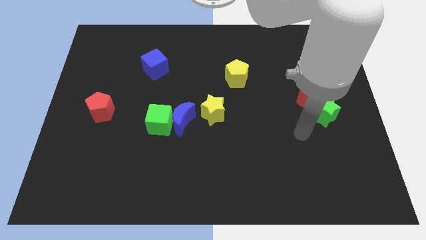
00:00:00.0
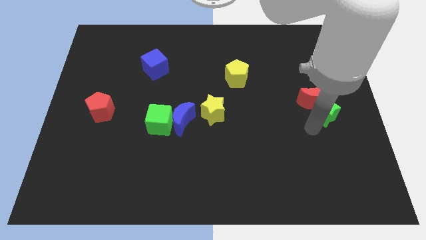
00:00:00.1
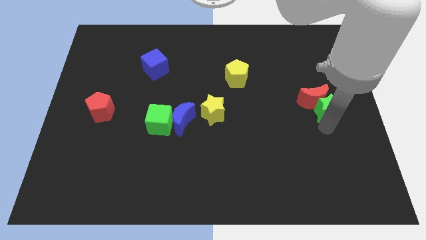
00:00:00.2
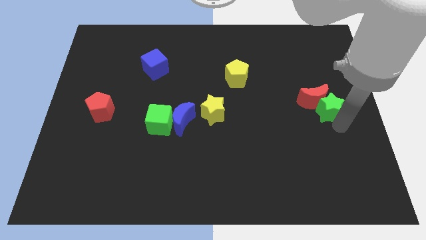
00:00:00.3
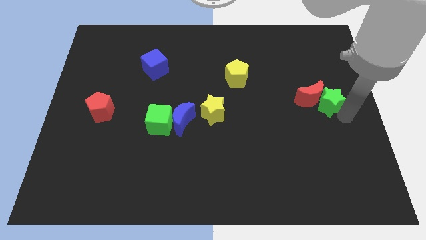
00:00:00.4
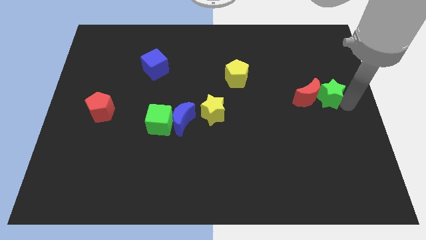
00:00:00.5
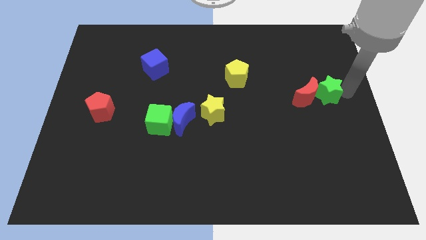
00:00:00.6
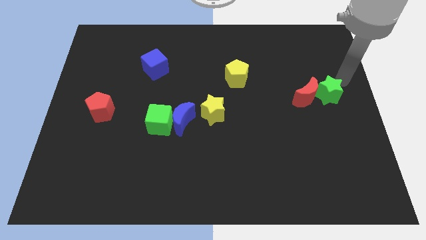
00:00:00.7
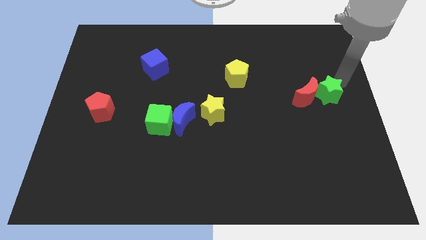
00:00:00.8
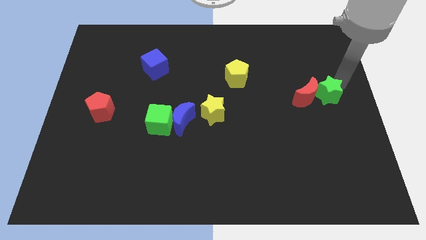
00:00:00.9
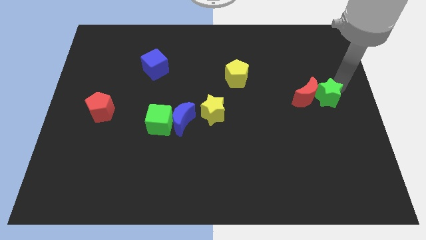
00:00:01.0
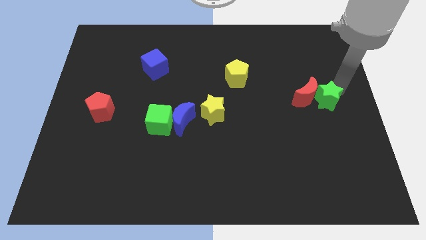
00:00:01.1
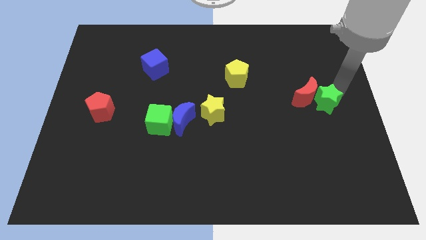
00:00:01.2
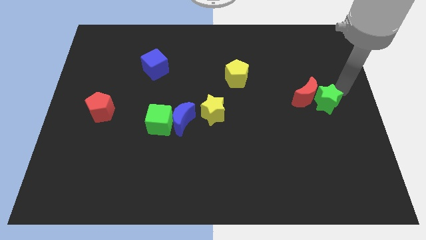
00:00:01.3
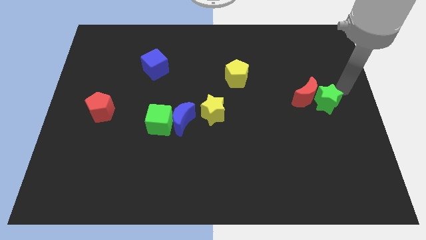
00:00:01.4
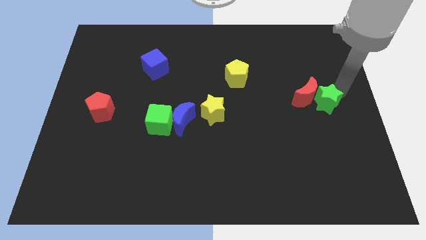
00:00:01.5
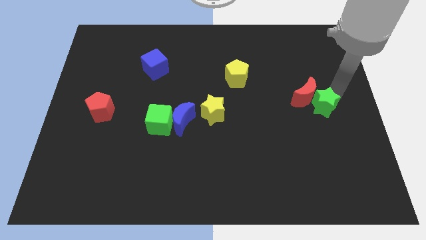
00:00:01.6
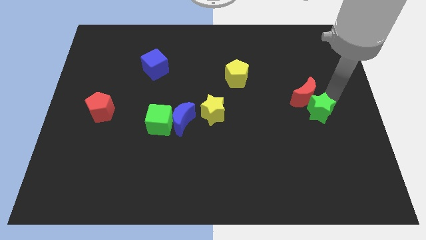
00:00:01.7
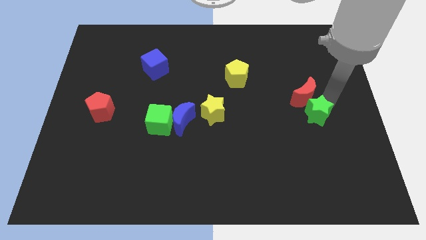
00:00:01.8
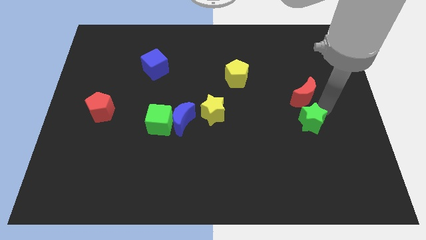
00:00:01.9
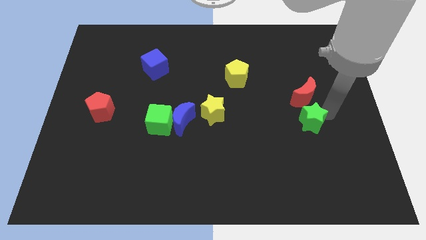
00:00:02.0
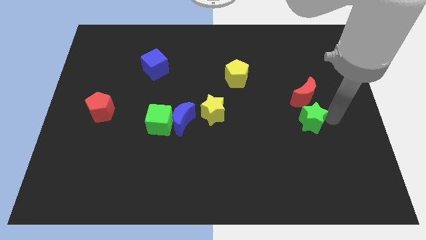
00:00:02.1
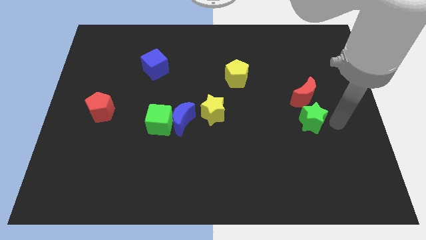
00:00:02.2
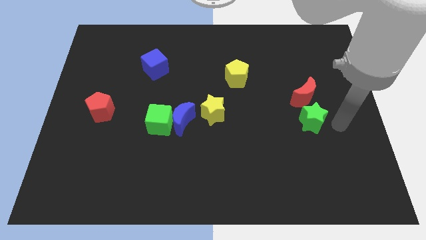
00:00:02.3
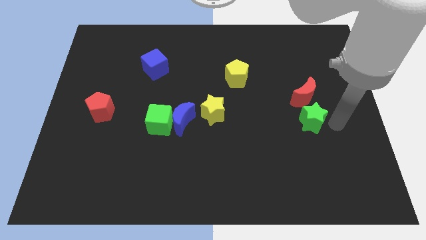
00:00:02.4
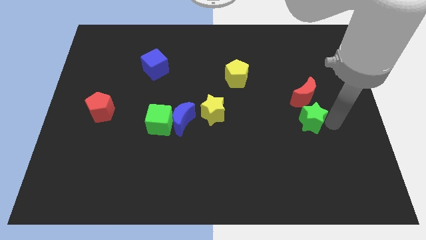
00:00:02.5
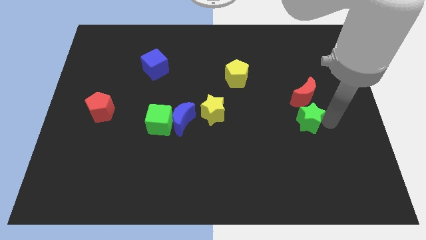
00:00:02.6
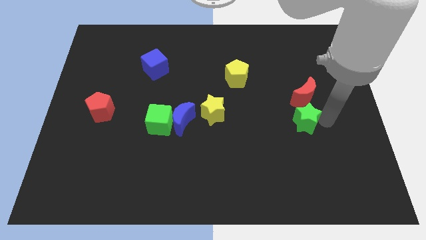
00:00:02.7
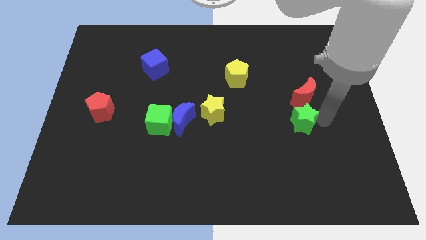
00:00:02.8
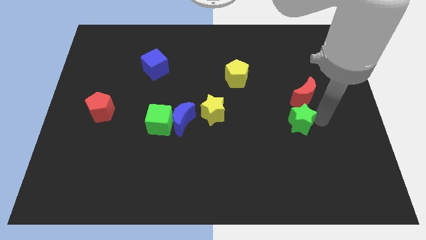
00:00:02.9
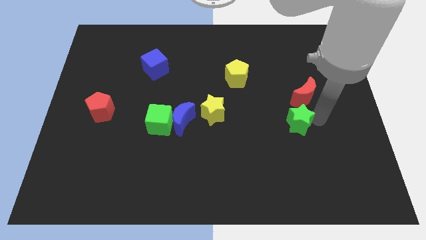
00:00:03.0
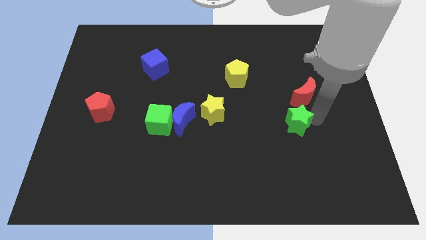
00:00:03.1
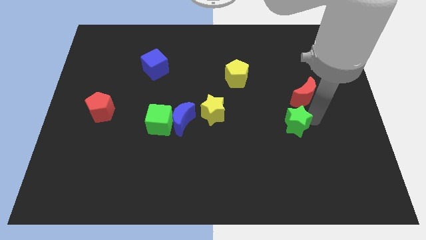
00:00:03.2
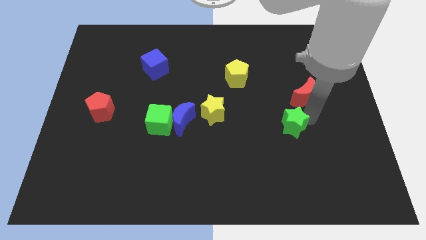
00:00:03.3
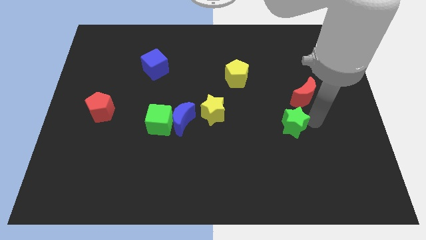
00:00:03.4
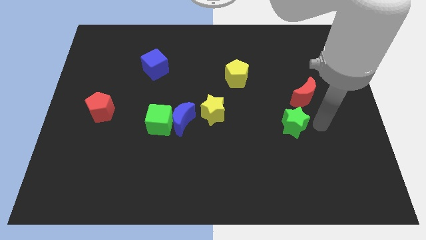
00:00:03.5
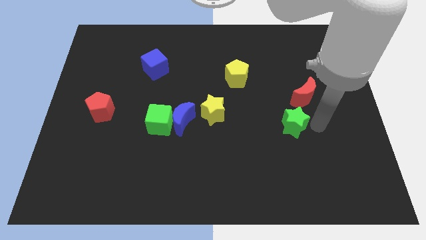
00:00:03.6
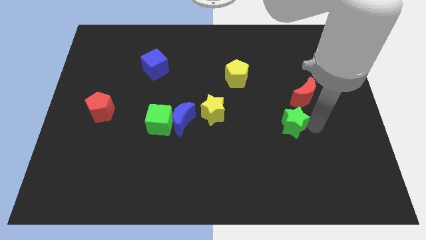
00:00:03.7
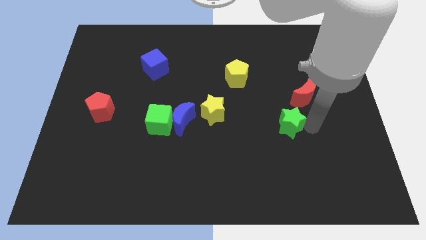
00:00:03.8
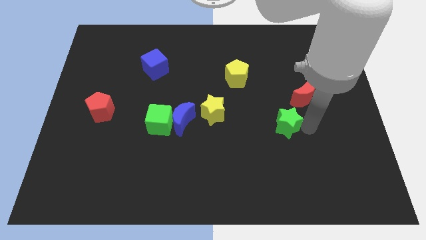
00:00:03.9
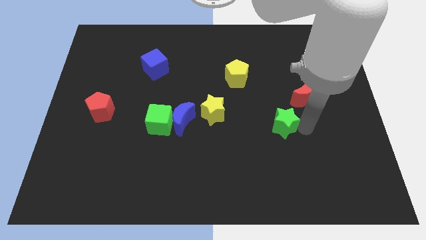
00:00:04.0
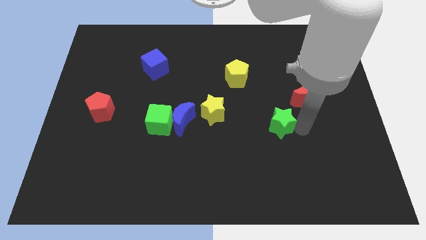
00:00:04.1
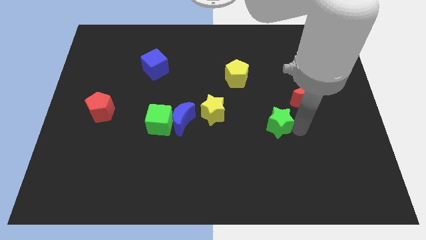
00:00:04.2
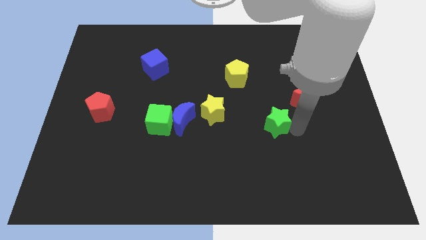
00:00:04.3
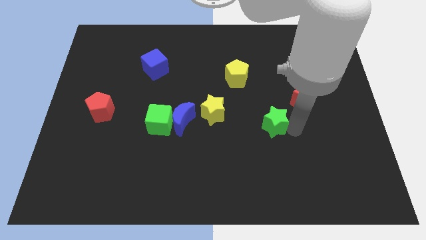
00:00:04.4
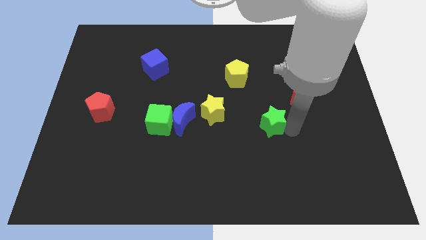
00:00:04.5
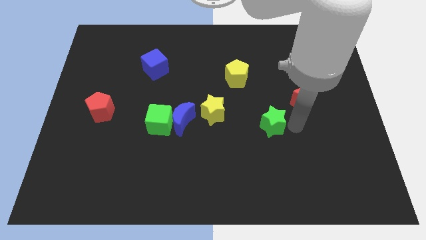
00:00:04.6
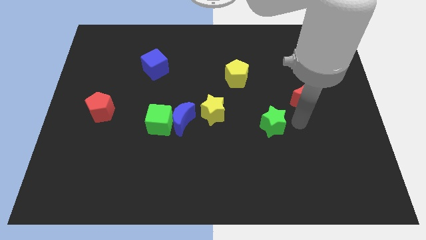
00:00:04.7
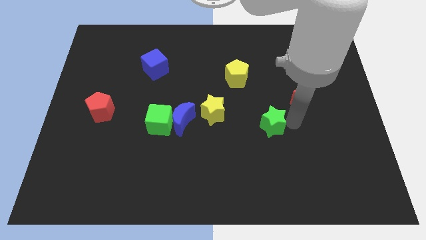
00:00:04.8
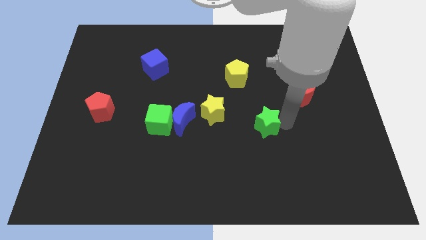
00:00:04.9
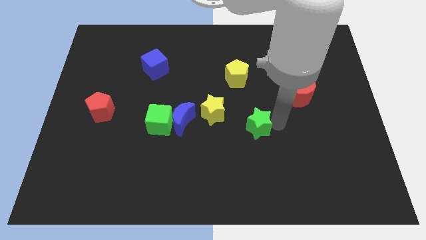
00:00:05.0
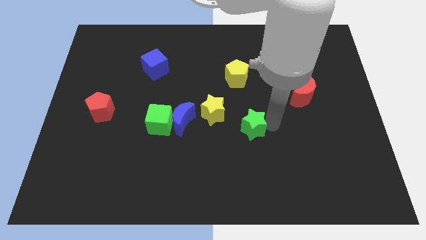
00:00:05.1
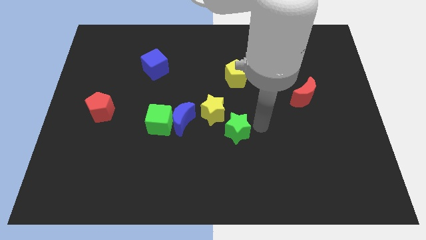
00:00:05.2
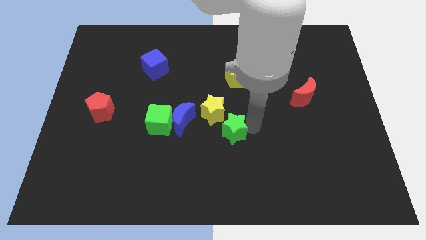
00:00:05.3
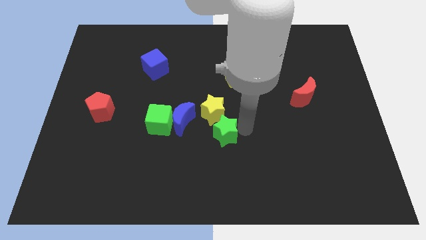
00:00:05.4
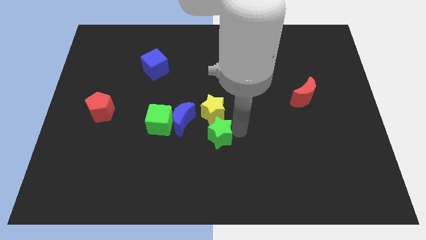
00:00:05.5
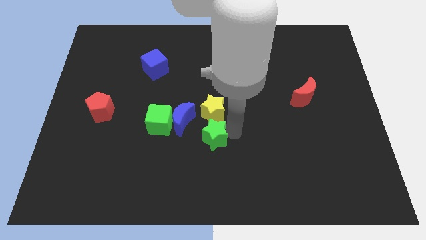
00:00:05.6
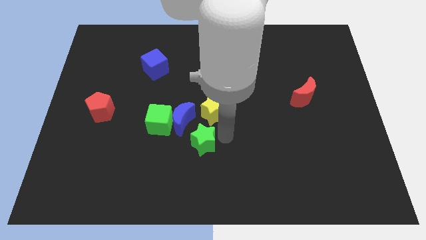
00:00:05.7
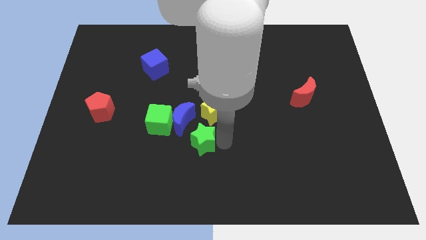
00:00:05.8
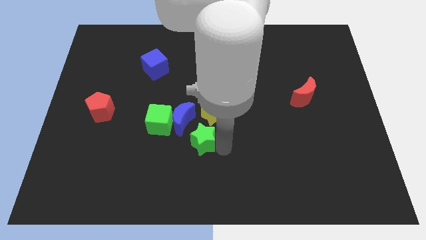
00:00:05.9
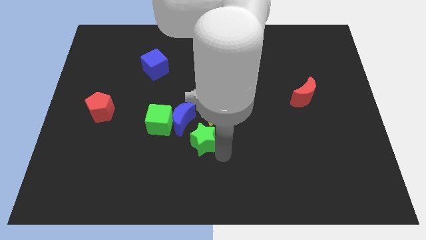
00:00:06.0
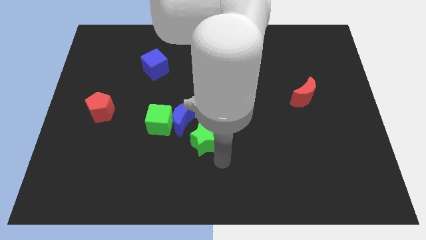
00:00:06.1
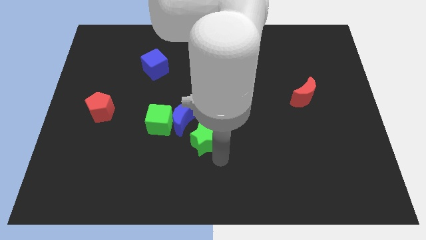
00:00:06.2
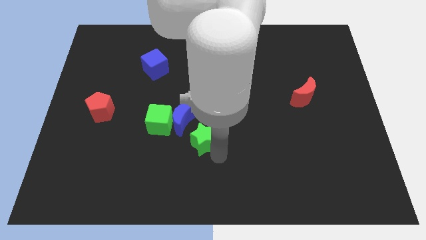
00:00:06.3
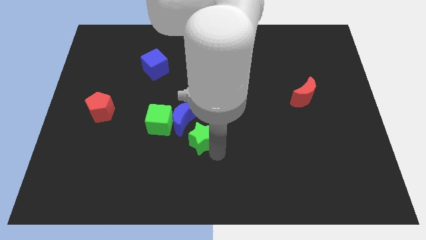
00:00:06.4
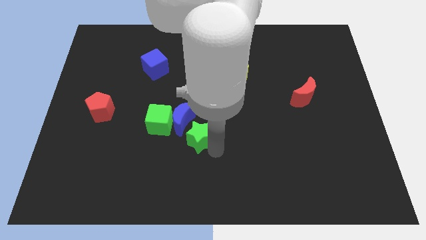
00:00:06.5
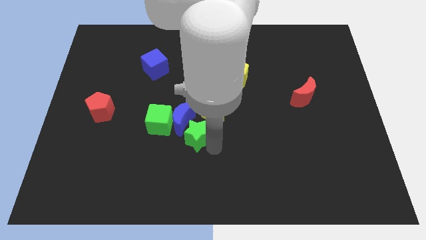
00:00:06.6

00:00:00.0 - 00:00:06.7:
push the green star to the blue moon

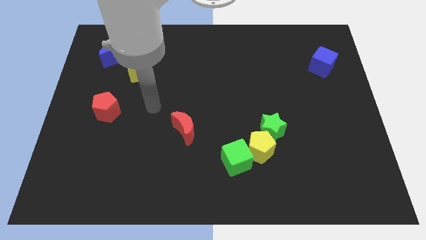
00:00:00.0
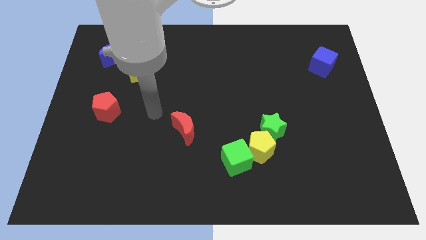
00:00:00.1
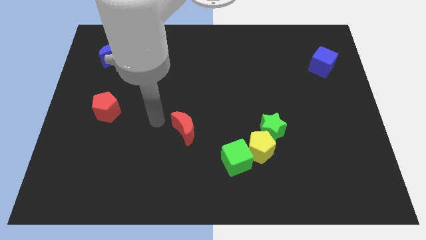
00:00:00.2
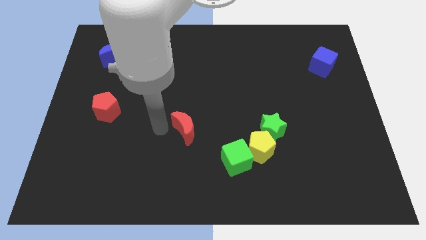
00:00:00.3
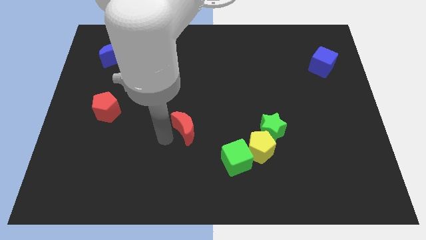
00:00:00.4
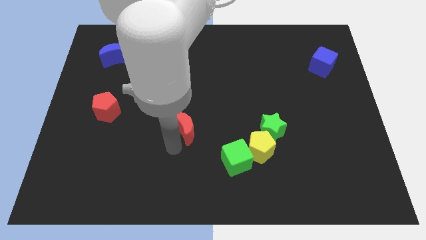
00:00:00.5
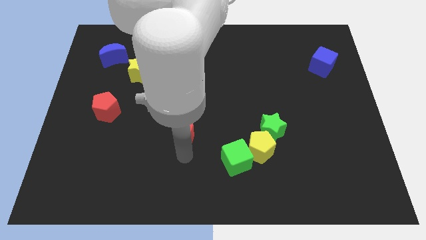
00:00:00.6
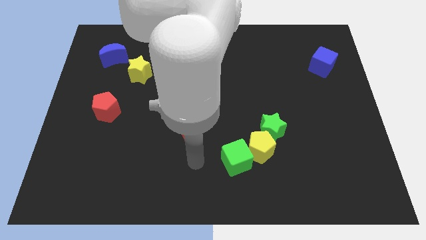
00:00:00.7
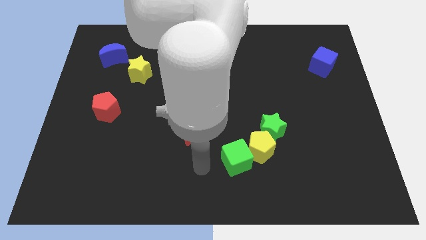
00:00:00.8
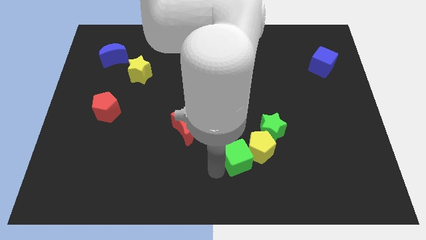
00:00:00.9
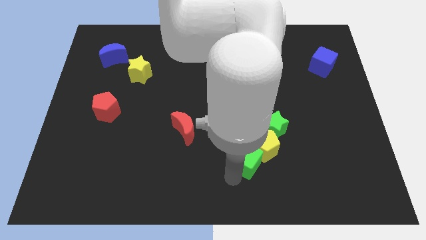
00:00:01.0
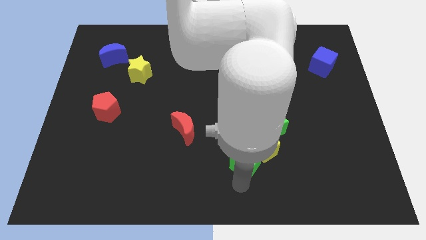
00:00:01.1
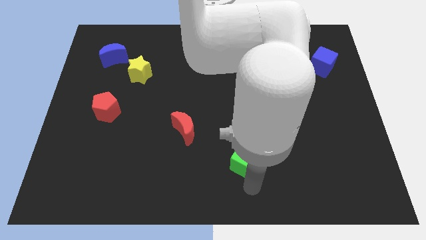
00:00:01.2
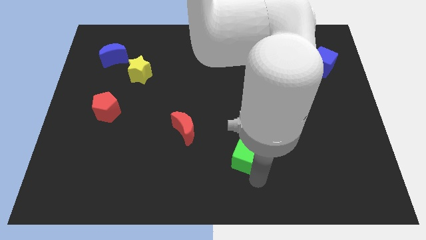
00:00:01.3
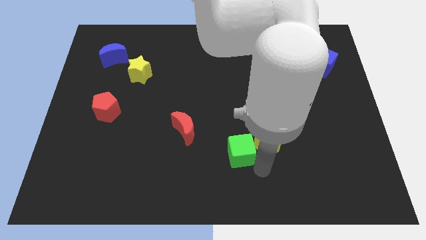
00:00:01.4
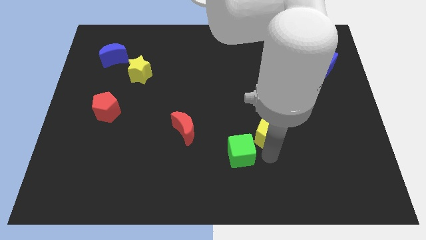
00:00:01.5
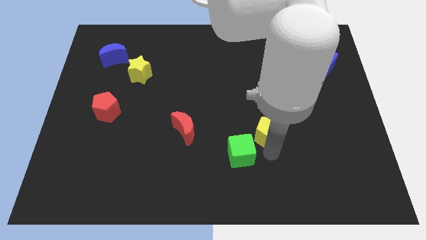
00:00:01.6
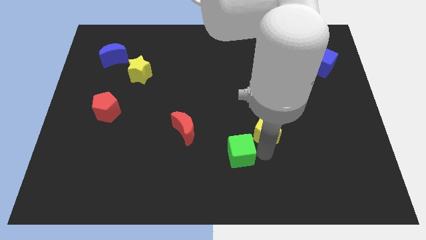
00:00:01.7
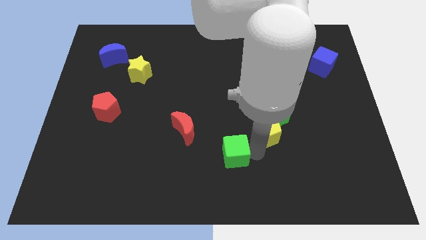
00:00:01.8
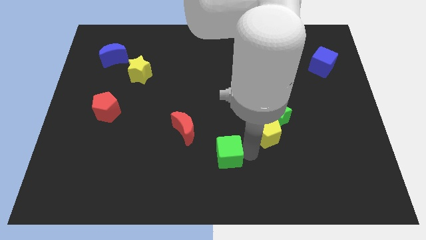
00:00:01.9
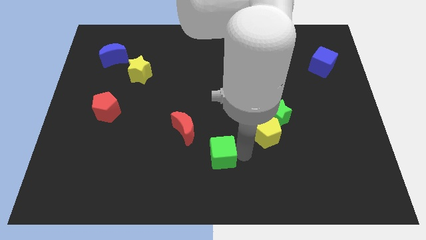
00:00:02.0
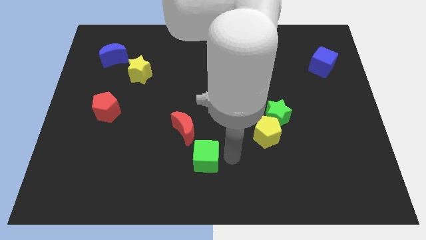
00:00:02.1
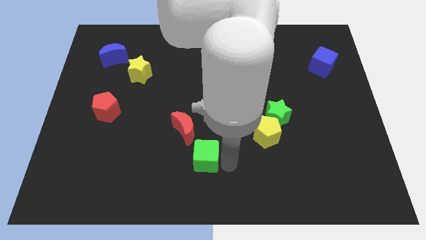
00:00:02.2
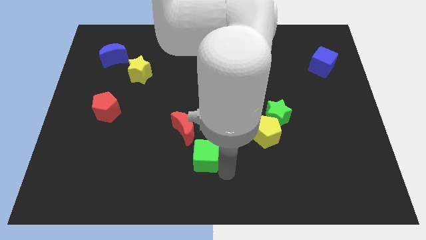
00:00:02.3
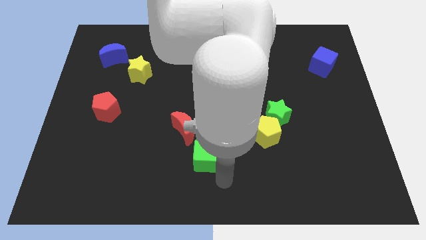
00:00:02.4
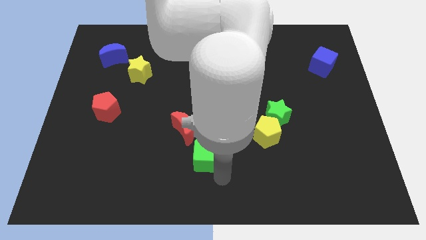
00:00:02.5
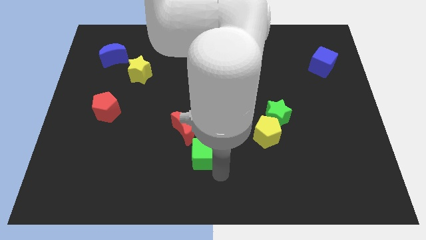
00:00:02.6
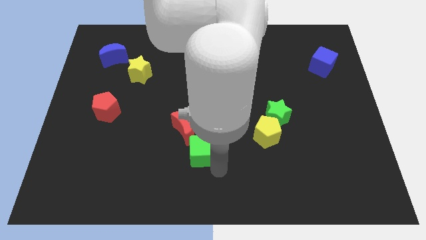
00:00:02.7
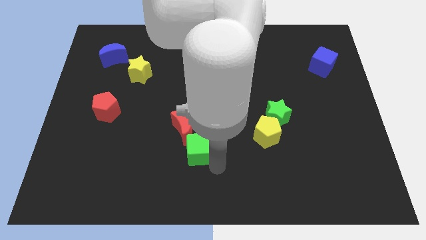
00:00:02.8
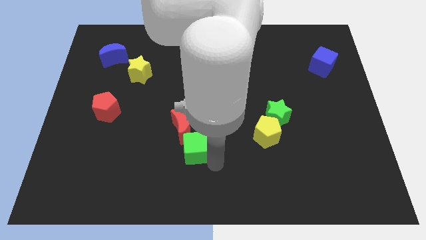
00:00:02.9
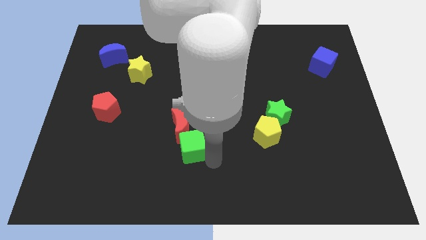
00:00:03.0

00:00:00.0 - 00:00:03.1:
move the green cube close to the red moon
